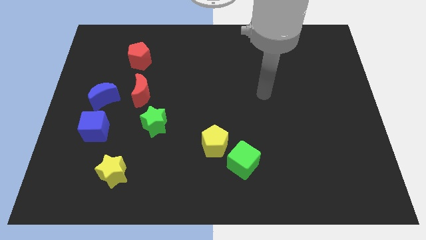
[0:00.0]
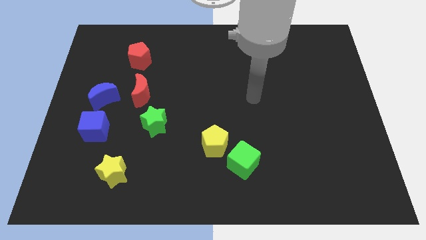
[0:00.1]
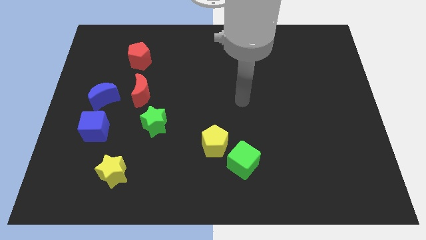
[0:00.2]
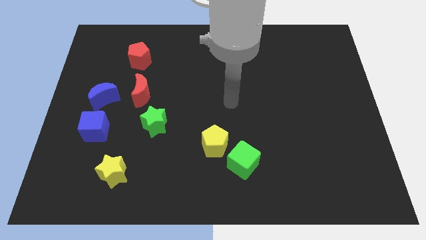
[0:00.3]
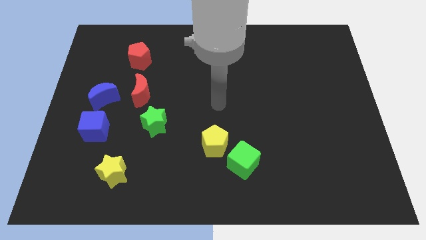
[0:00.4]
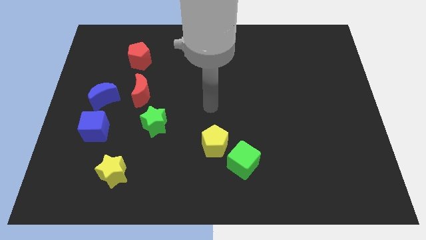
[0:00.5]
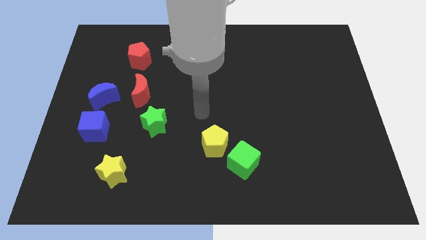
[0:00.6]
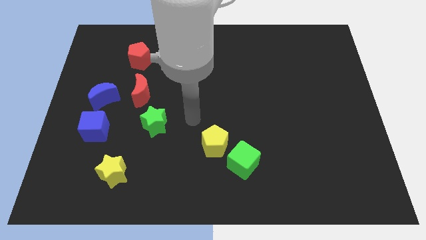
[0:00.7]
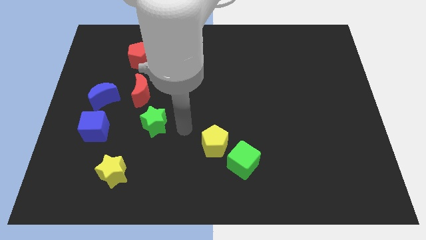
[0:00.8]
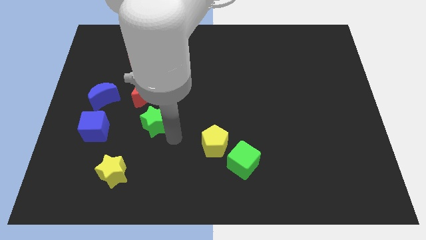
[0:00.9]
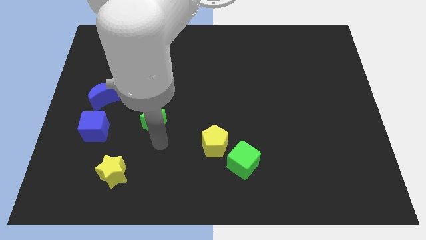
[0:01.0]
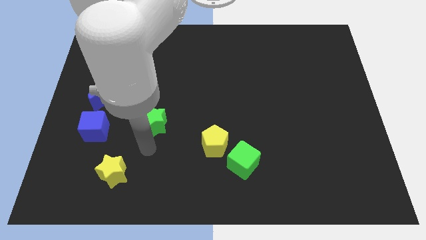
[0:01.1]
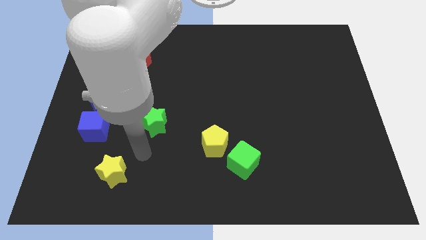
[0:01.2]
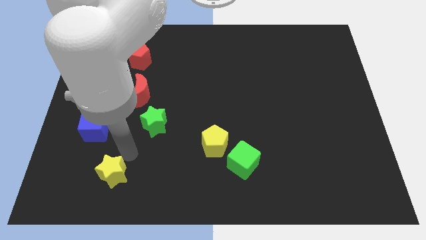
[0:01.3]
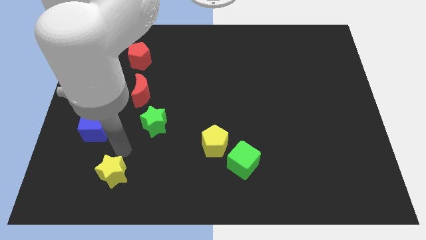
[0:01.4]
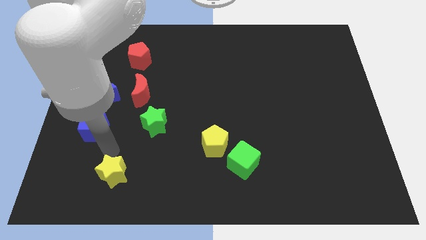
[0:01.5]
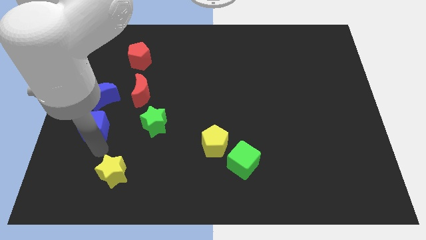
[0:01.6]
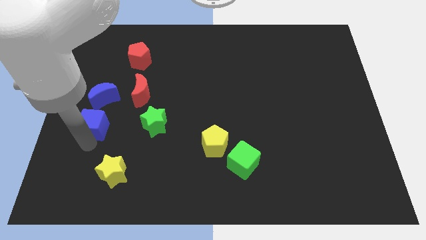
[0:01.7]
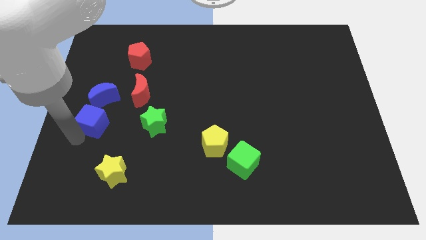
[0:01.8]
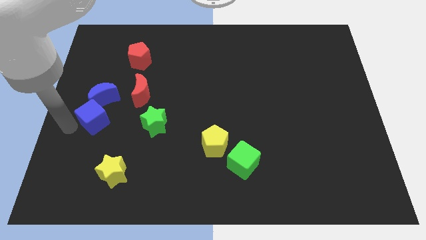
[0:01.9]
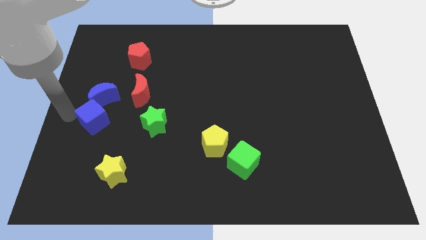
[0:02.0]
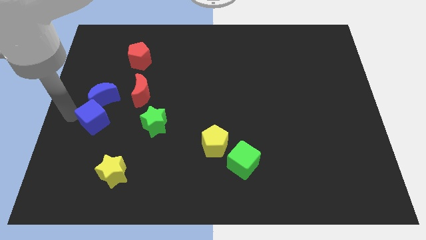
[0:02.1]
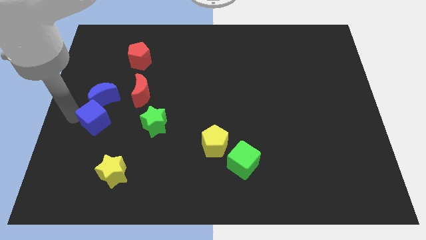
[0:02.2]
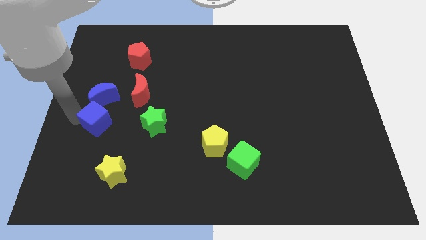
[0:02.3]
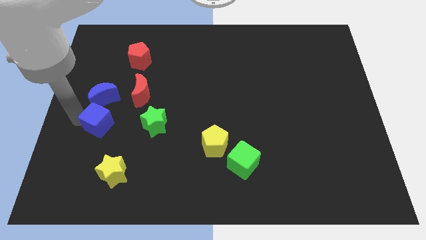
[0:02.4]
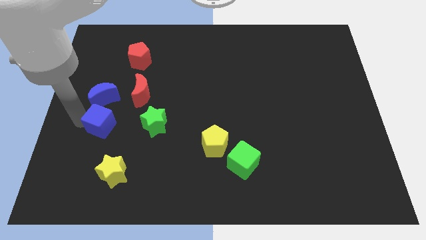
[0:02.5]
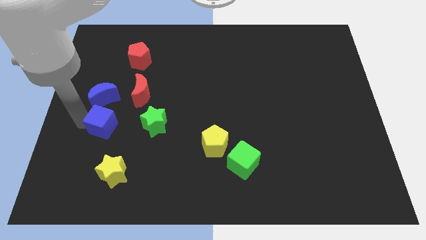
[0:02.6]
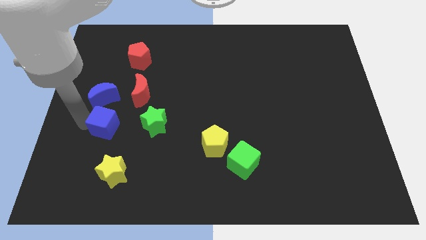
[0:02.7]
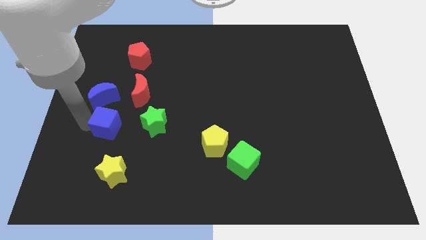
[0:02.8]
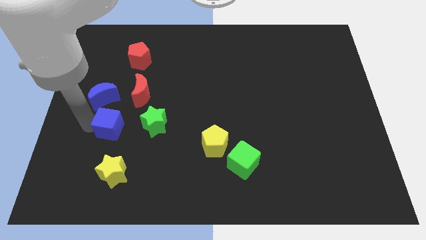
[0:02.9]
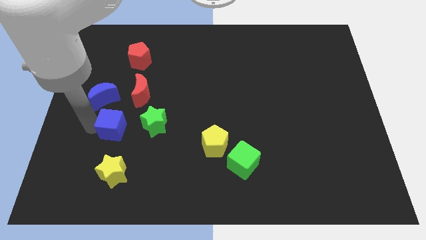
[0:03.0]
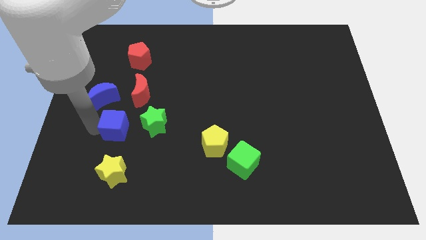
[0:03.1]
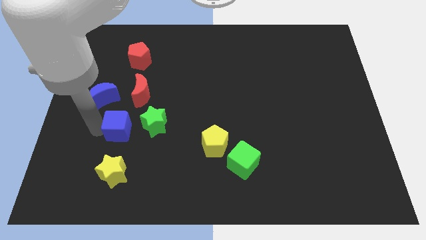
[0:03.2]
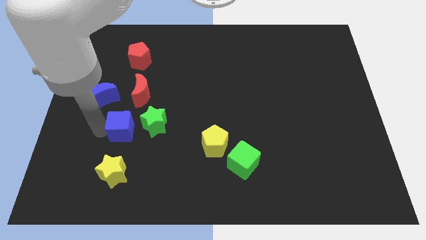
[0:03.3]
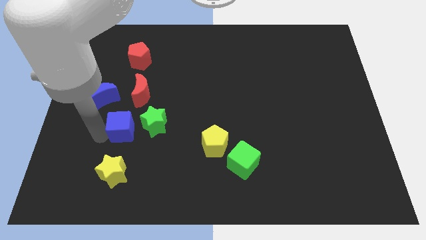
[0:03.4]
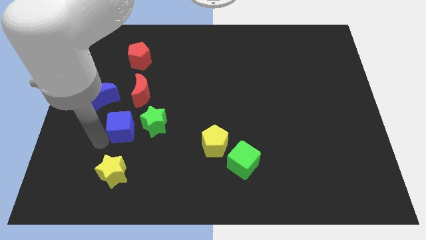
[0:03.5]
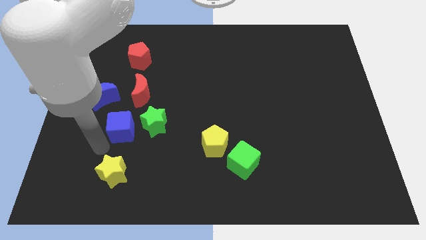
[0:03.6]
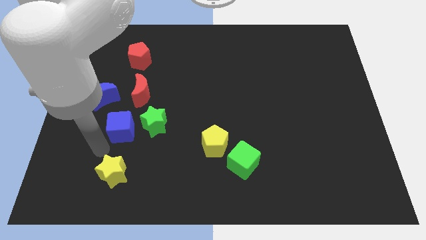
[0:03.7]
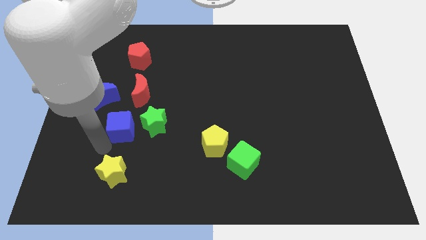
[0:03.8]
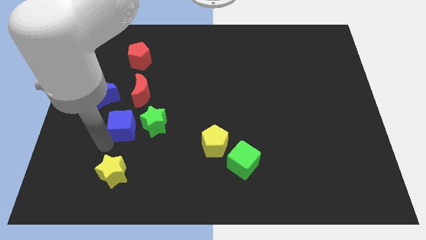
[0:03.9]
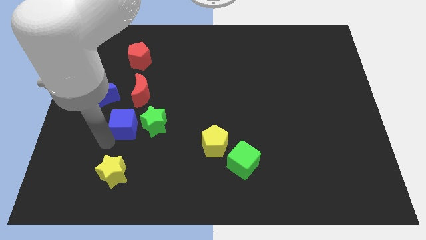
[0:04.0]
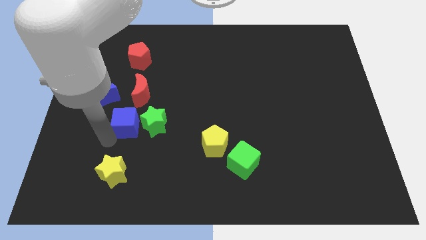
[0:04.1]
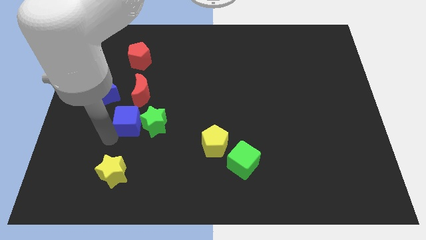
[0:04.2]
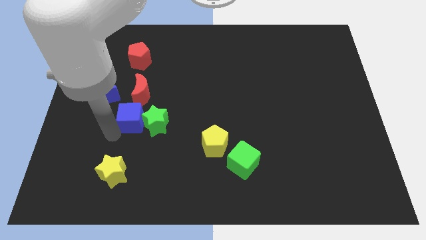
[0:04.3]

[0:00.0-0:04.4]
slide the blue cube upwards and to the right diagonally a bit

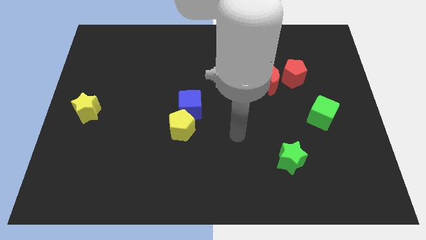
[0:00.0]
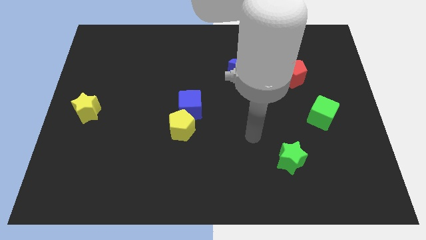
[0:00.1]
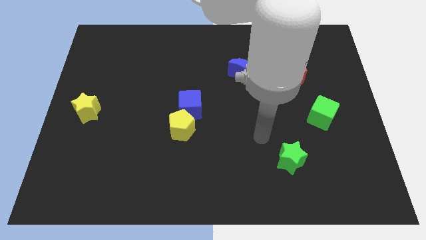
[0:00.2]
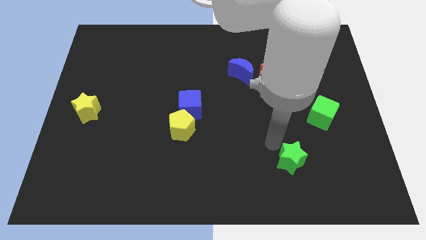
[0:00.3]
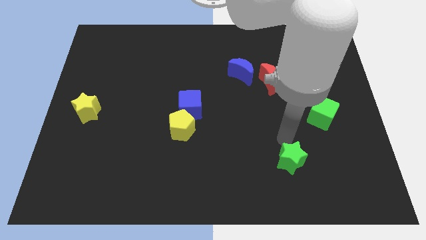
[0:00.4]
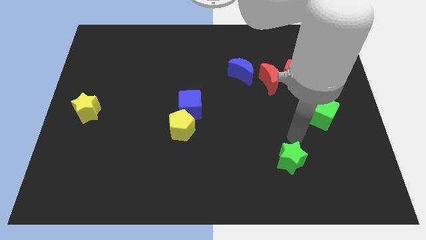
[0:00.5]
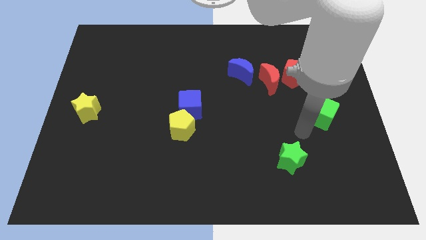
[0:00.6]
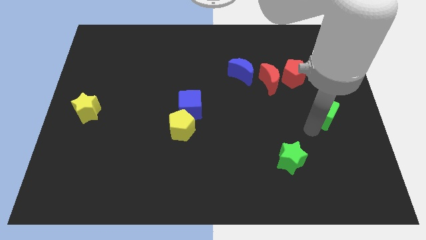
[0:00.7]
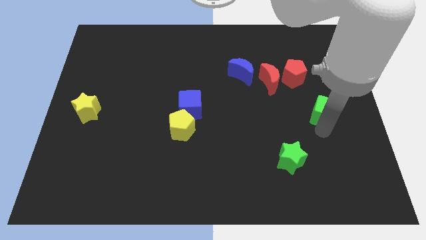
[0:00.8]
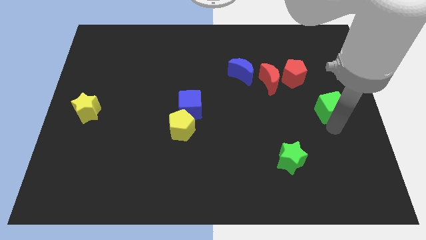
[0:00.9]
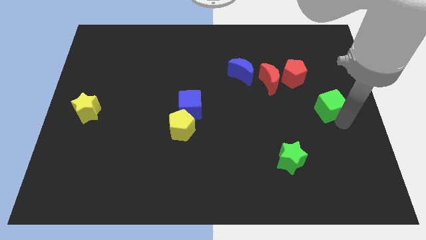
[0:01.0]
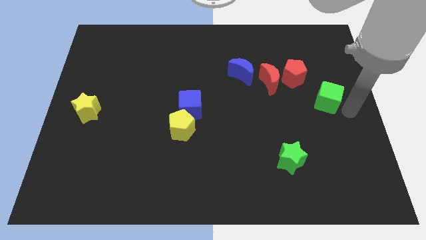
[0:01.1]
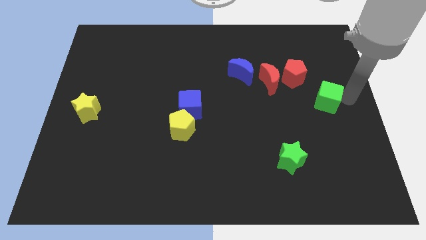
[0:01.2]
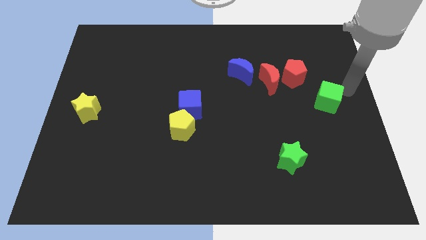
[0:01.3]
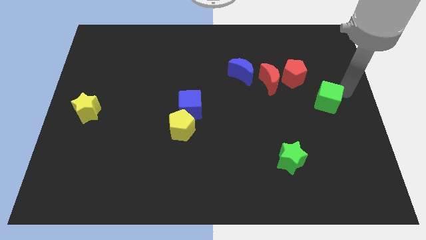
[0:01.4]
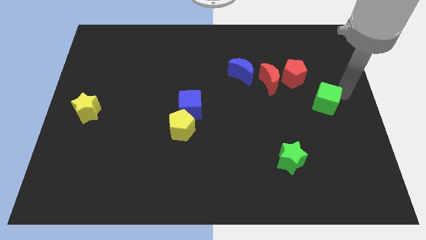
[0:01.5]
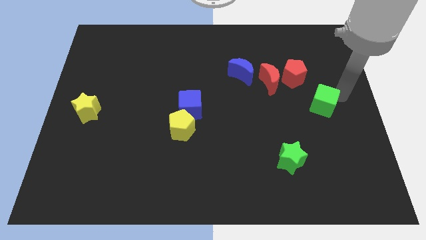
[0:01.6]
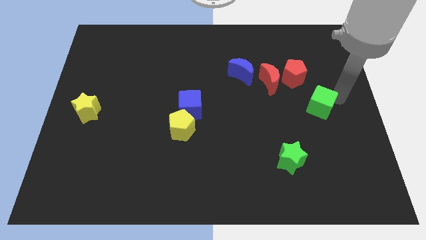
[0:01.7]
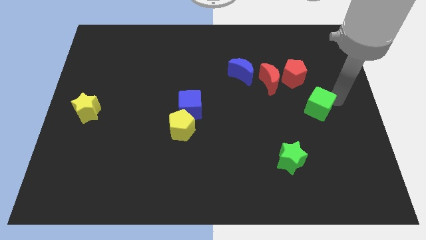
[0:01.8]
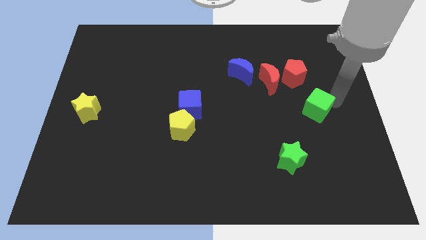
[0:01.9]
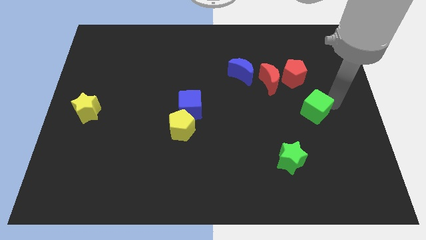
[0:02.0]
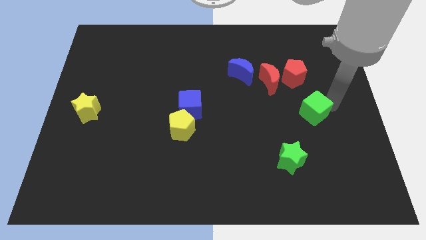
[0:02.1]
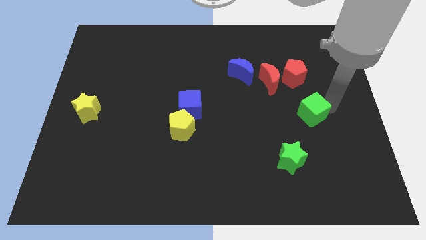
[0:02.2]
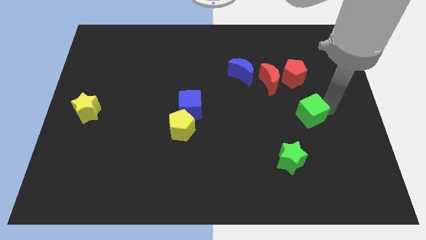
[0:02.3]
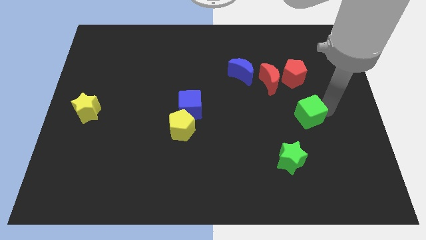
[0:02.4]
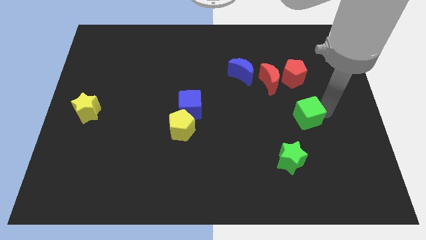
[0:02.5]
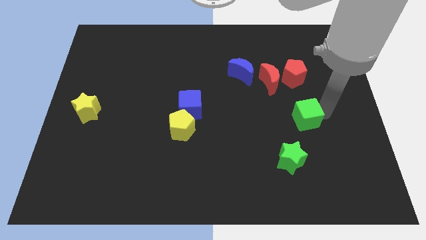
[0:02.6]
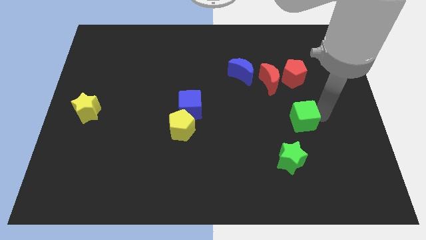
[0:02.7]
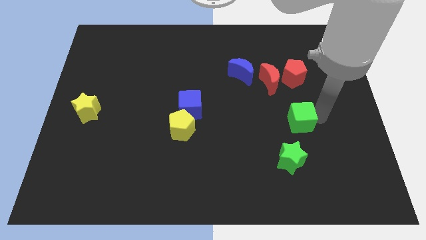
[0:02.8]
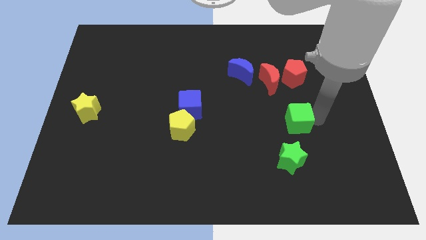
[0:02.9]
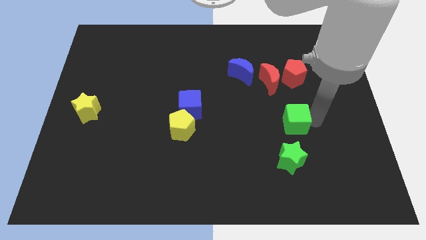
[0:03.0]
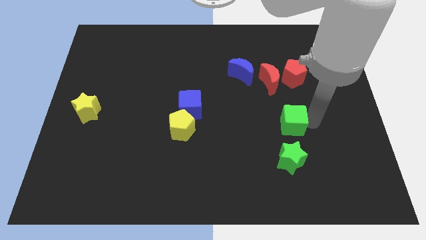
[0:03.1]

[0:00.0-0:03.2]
slide the green cube somewhat left
